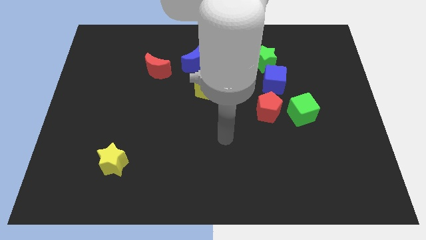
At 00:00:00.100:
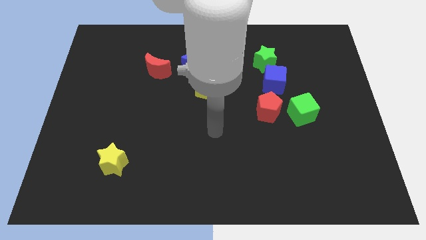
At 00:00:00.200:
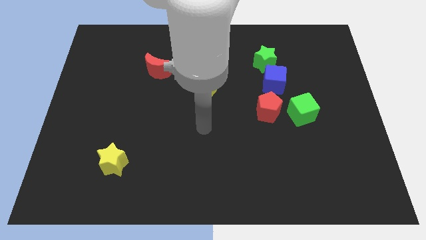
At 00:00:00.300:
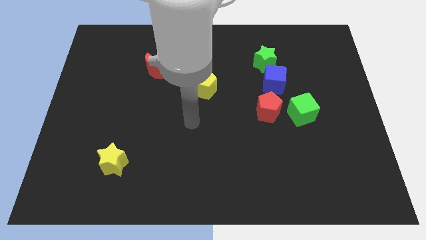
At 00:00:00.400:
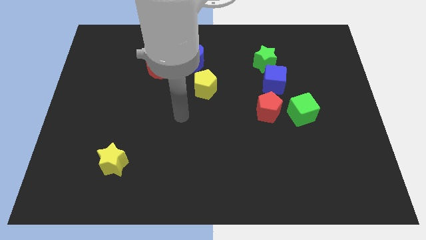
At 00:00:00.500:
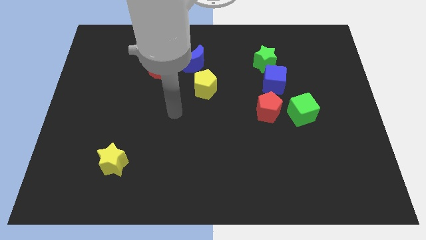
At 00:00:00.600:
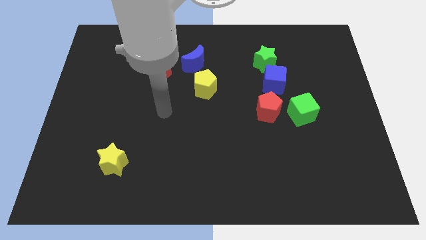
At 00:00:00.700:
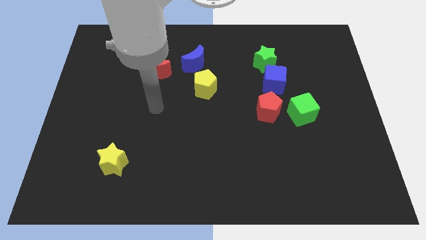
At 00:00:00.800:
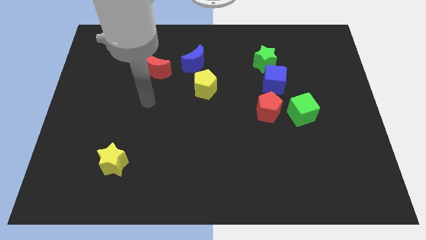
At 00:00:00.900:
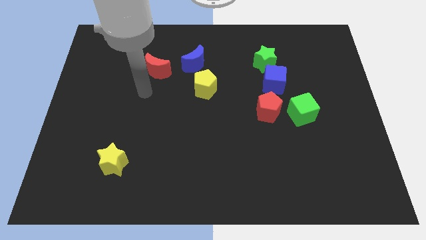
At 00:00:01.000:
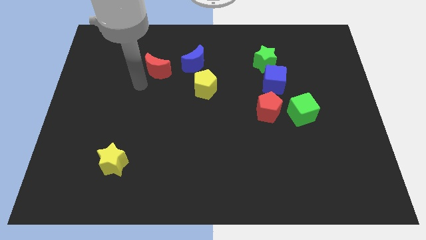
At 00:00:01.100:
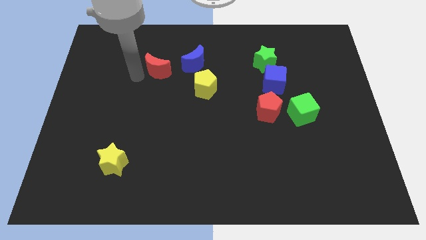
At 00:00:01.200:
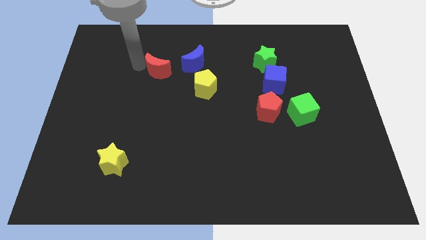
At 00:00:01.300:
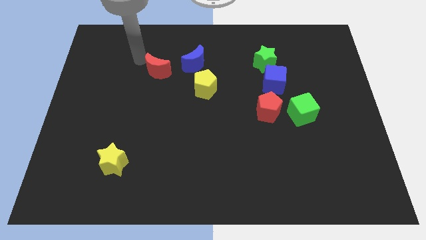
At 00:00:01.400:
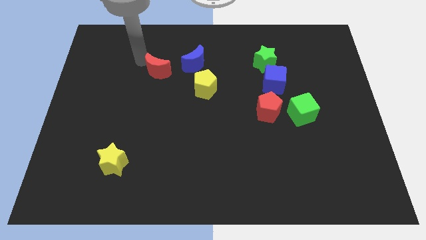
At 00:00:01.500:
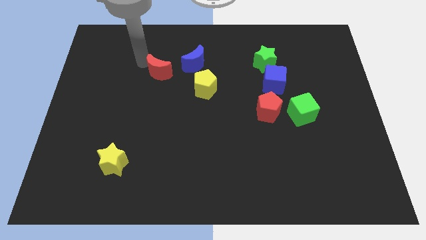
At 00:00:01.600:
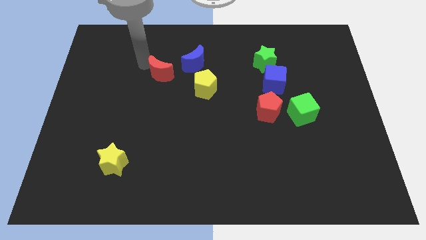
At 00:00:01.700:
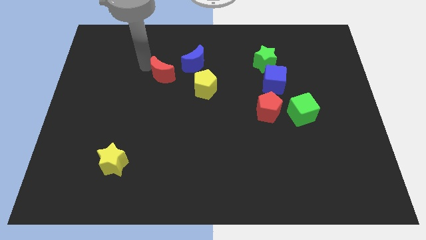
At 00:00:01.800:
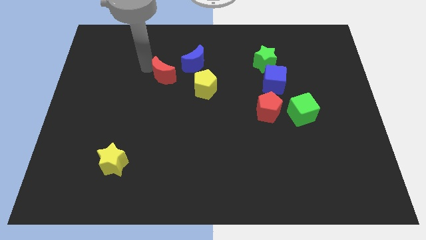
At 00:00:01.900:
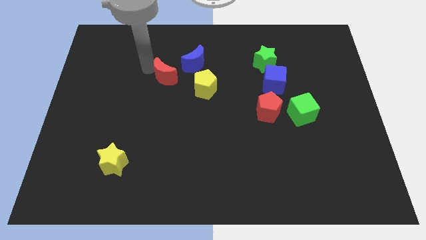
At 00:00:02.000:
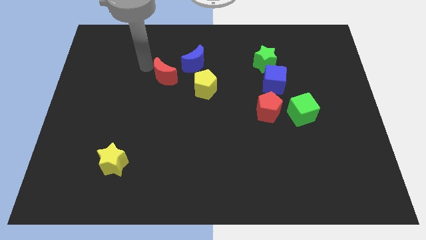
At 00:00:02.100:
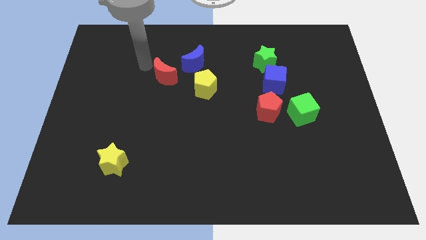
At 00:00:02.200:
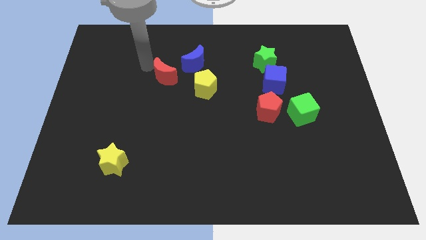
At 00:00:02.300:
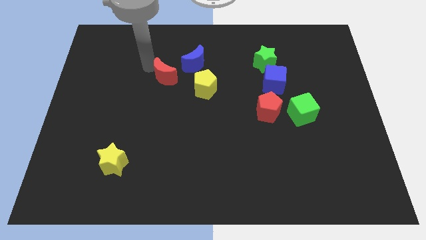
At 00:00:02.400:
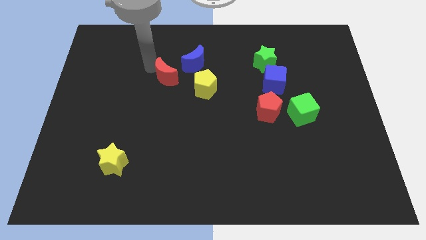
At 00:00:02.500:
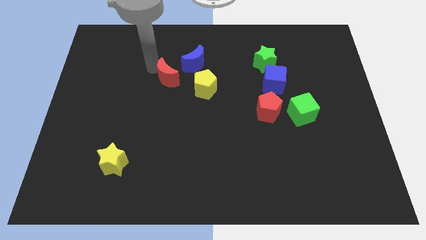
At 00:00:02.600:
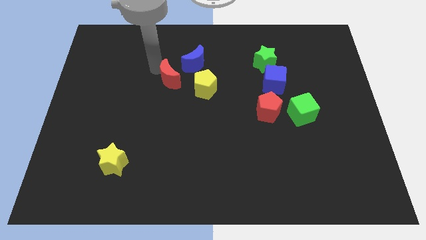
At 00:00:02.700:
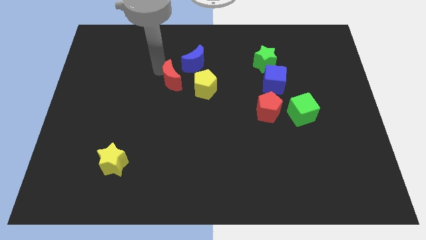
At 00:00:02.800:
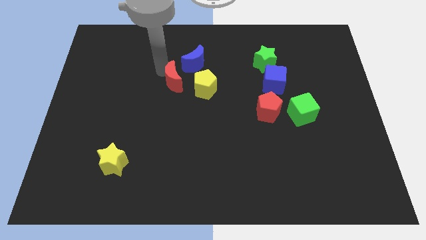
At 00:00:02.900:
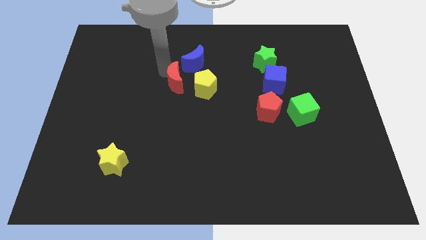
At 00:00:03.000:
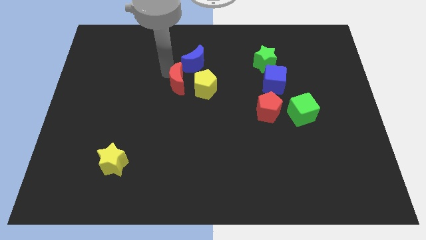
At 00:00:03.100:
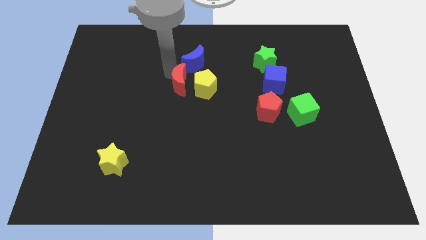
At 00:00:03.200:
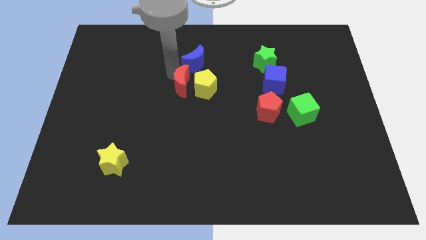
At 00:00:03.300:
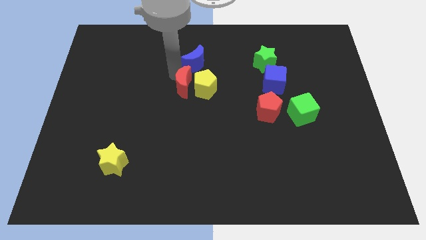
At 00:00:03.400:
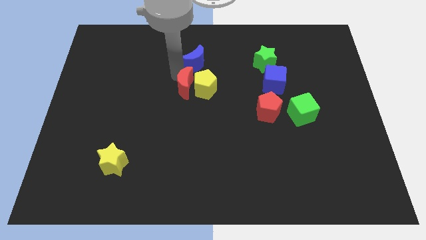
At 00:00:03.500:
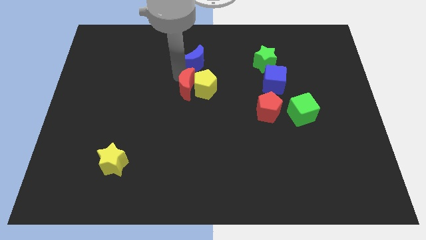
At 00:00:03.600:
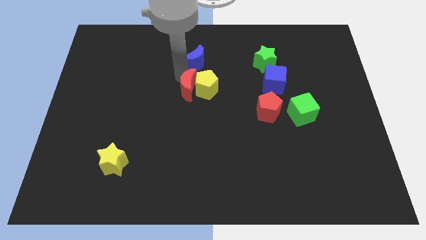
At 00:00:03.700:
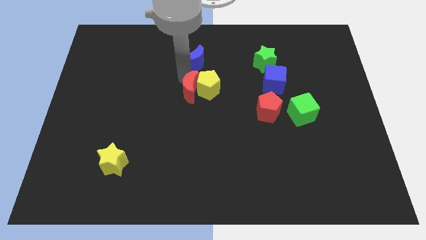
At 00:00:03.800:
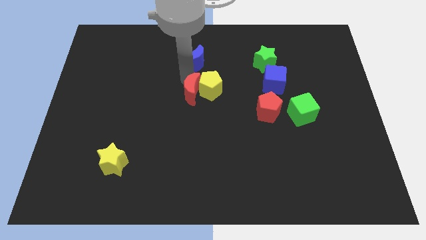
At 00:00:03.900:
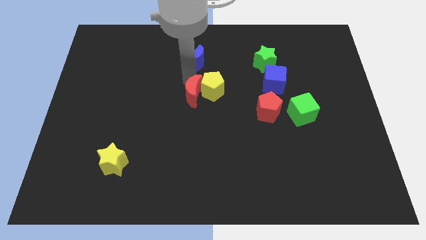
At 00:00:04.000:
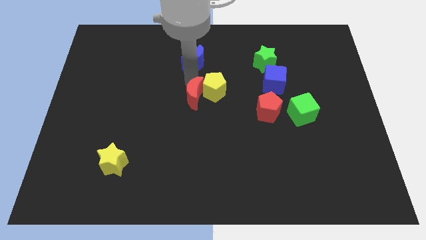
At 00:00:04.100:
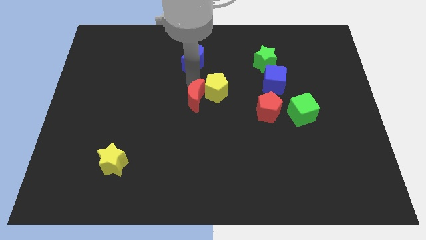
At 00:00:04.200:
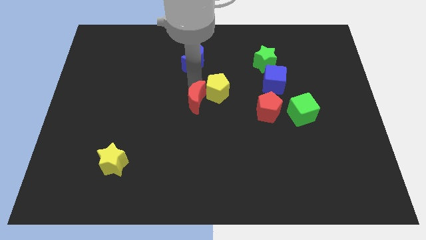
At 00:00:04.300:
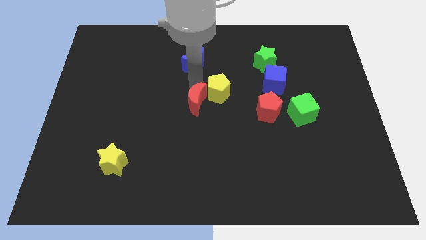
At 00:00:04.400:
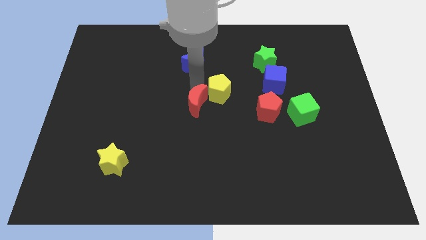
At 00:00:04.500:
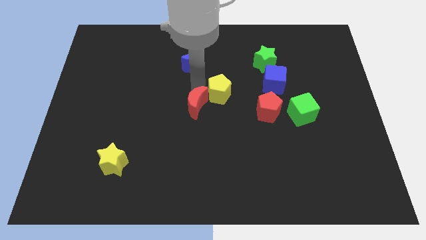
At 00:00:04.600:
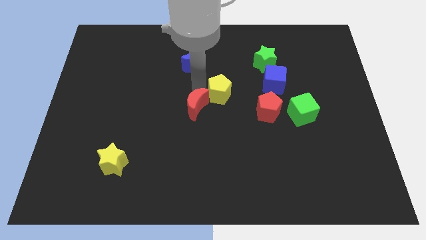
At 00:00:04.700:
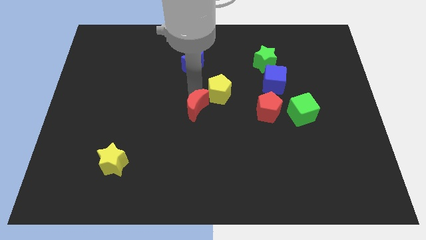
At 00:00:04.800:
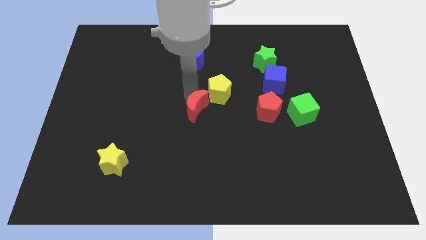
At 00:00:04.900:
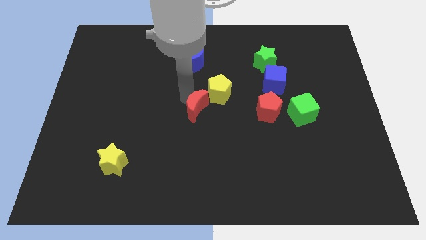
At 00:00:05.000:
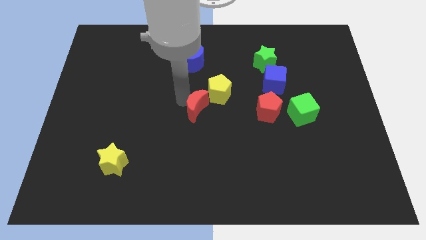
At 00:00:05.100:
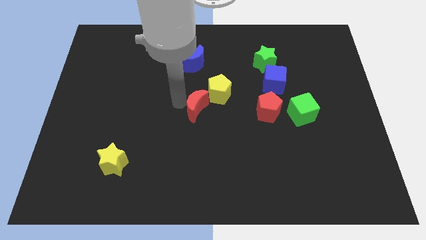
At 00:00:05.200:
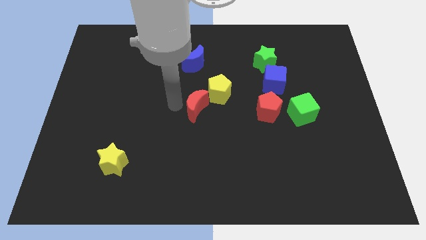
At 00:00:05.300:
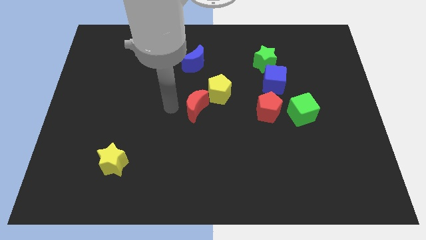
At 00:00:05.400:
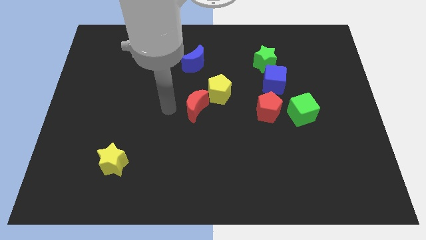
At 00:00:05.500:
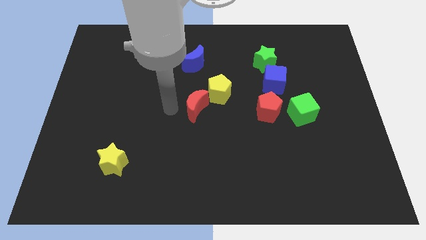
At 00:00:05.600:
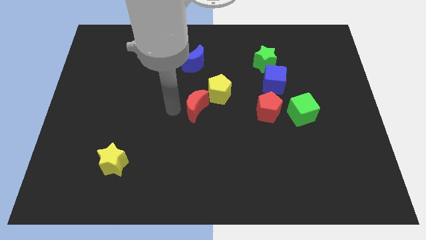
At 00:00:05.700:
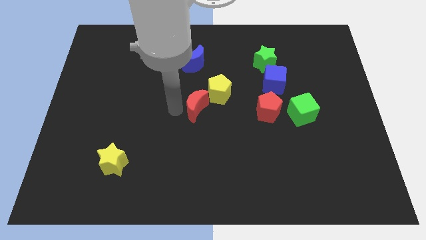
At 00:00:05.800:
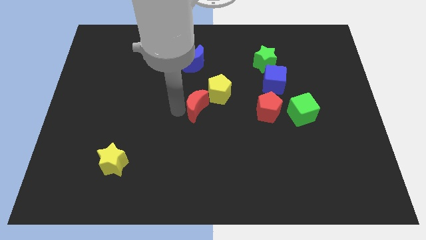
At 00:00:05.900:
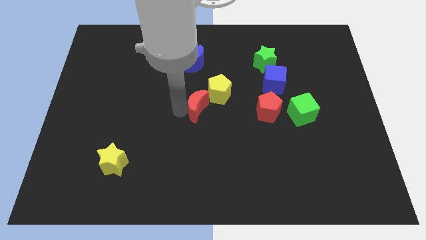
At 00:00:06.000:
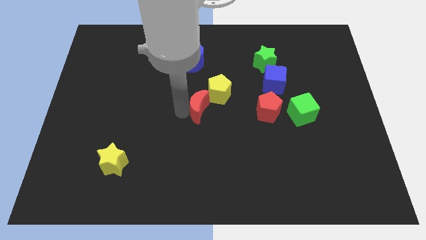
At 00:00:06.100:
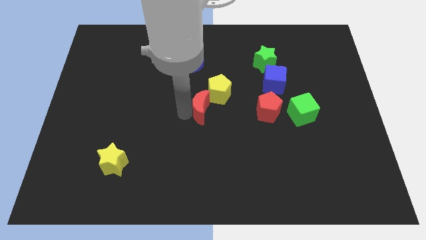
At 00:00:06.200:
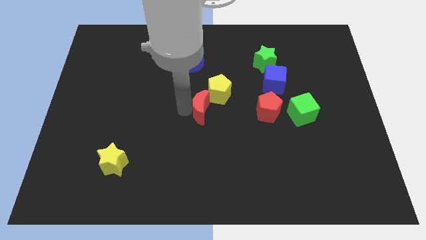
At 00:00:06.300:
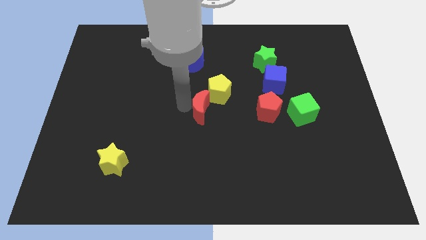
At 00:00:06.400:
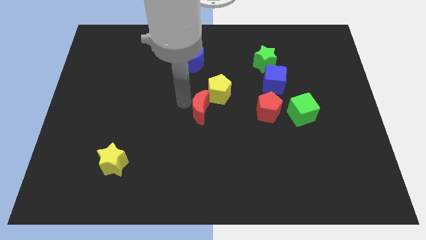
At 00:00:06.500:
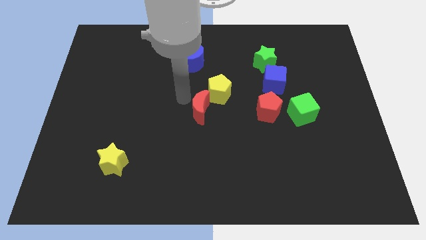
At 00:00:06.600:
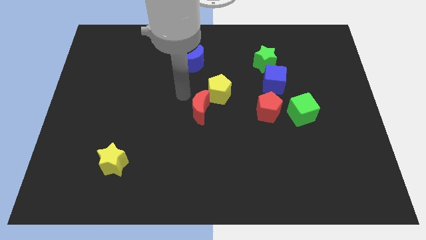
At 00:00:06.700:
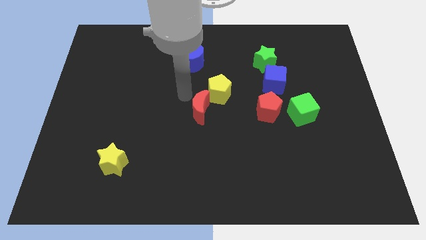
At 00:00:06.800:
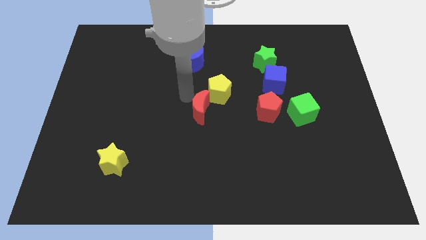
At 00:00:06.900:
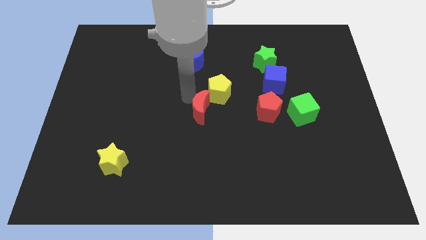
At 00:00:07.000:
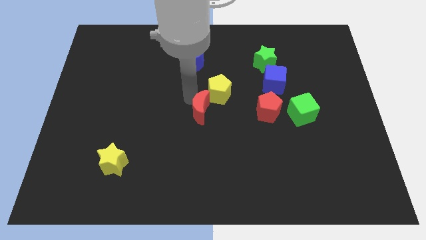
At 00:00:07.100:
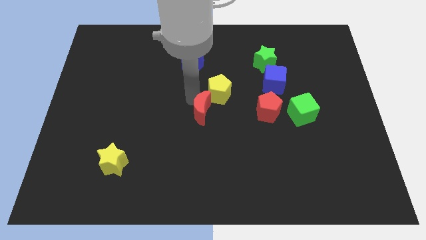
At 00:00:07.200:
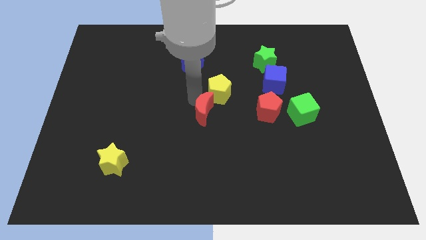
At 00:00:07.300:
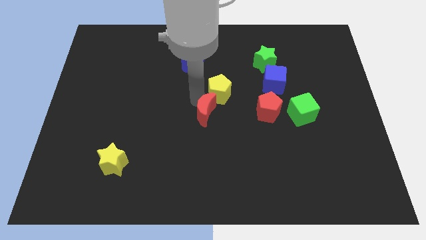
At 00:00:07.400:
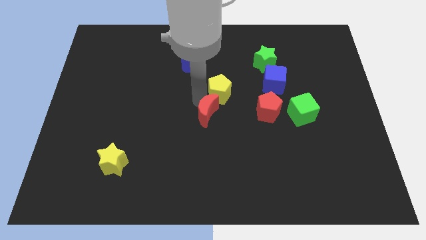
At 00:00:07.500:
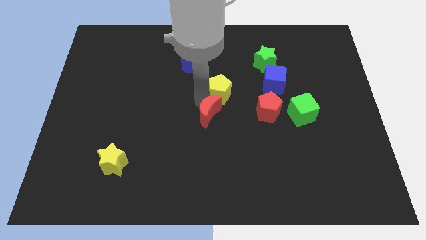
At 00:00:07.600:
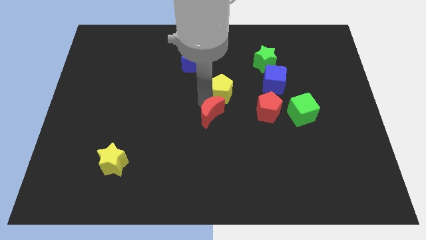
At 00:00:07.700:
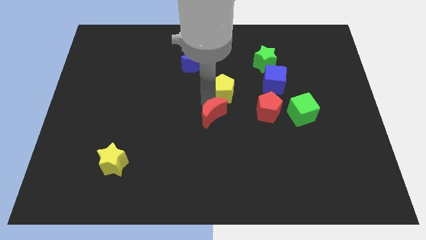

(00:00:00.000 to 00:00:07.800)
slide the red moon diagonally downwards and right
